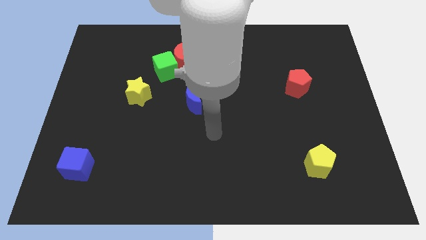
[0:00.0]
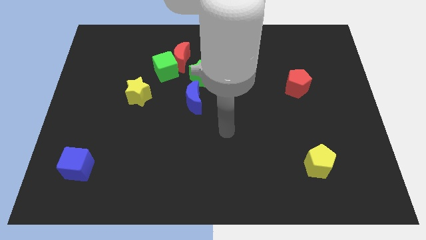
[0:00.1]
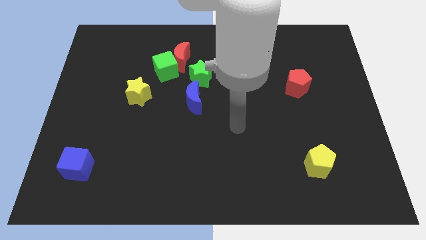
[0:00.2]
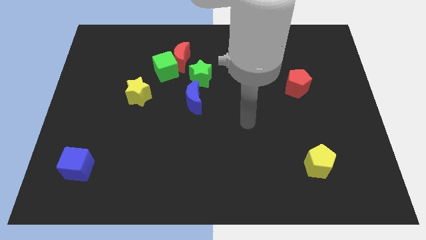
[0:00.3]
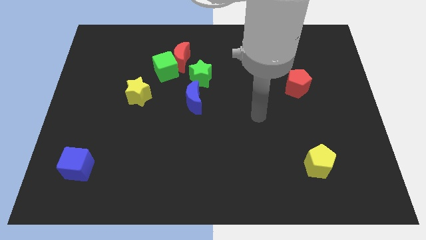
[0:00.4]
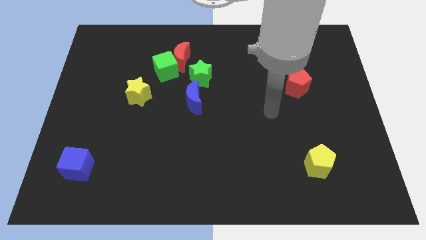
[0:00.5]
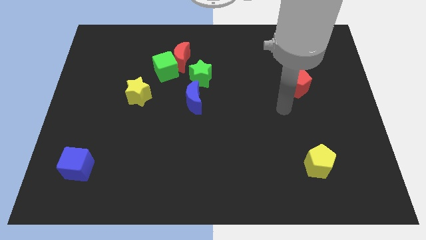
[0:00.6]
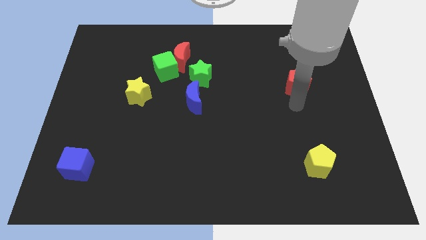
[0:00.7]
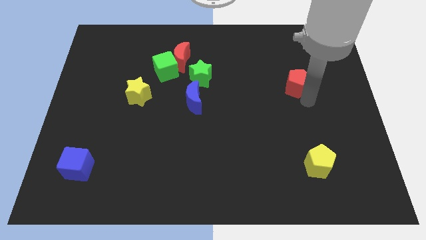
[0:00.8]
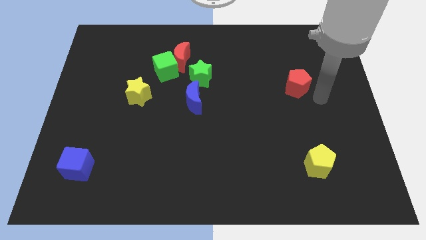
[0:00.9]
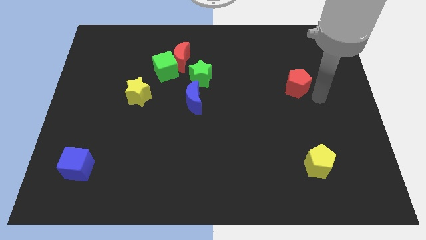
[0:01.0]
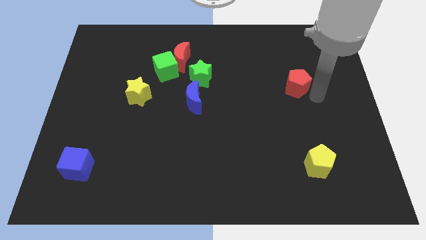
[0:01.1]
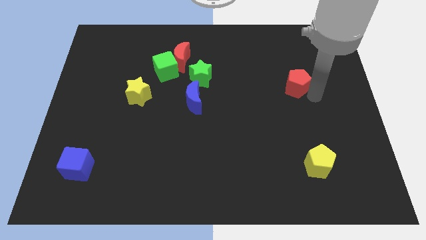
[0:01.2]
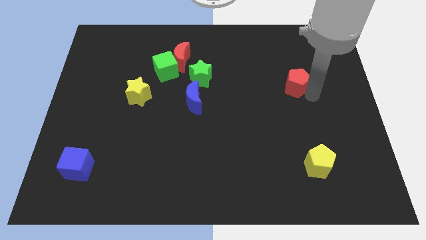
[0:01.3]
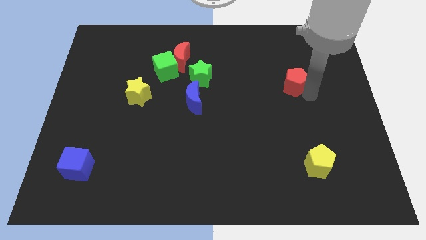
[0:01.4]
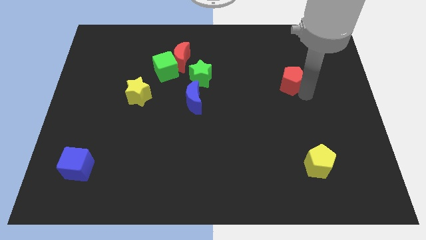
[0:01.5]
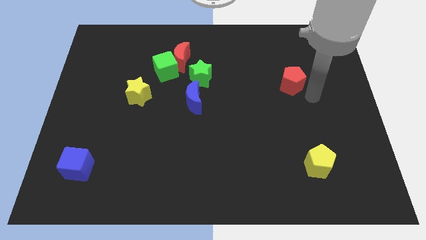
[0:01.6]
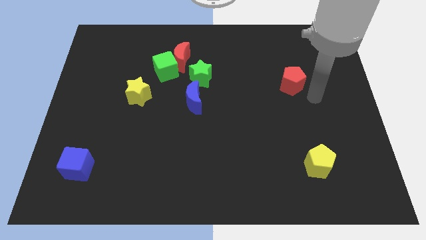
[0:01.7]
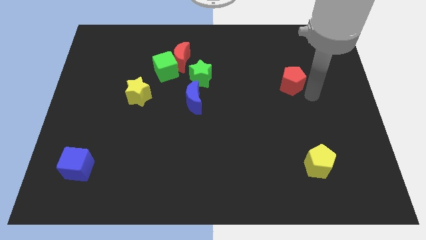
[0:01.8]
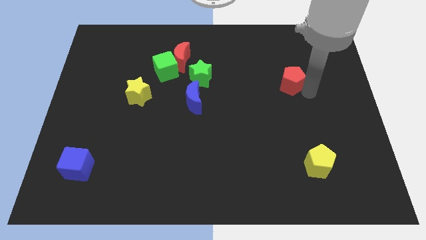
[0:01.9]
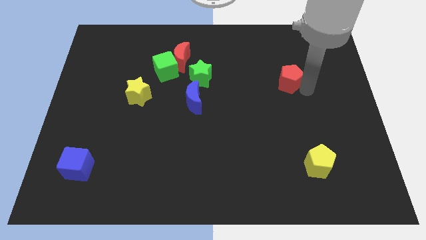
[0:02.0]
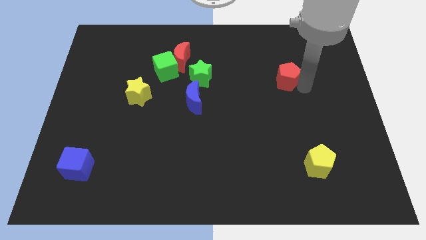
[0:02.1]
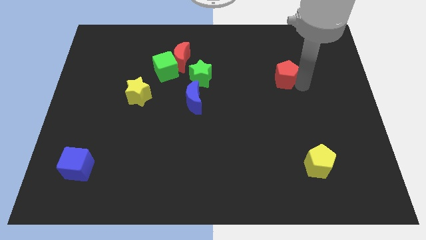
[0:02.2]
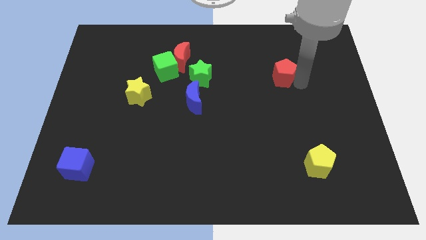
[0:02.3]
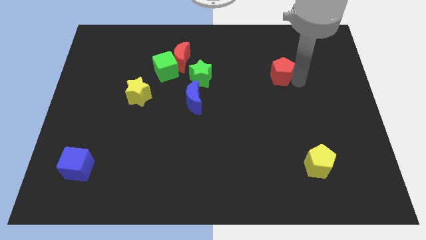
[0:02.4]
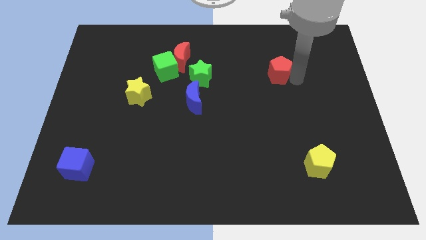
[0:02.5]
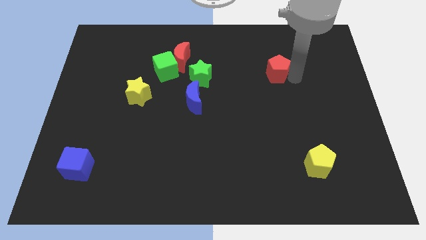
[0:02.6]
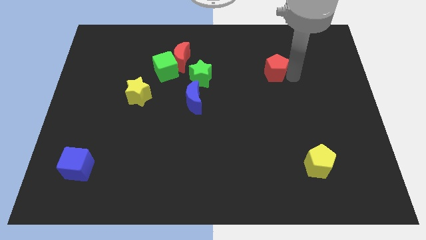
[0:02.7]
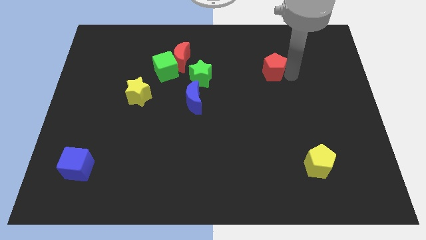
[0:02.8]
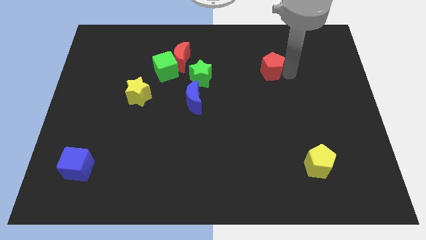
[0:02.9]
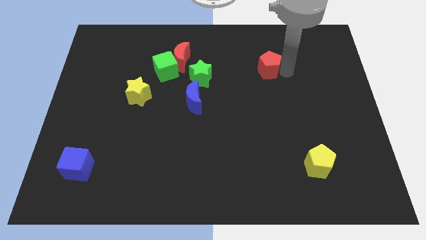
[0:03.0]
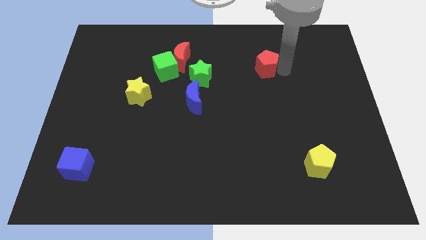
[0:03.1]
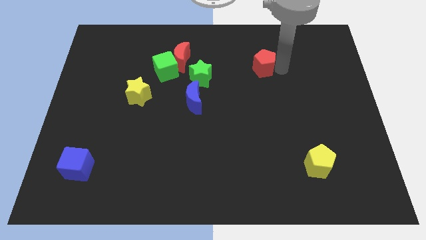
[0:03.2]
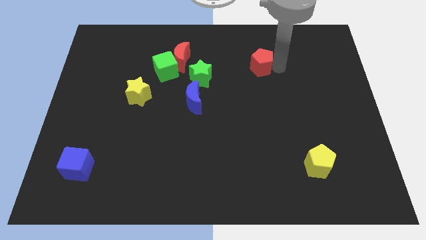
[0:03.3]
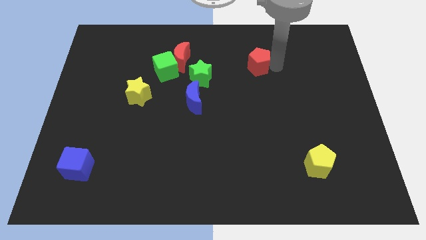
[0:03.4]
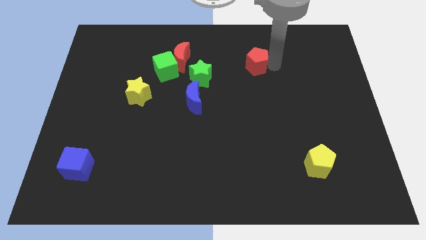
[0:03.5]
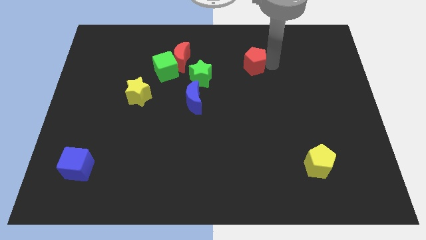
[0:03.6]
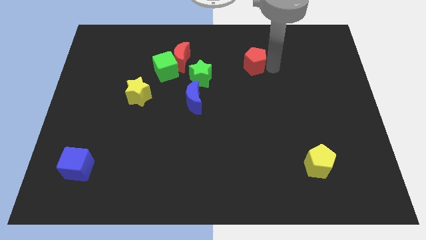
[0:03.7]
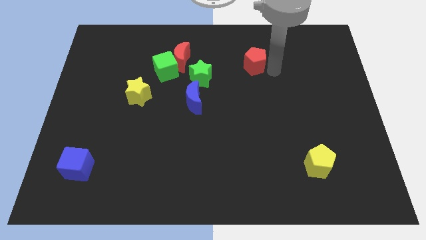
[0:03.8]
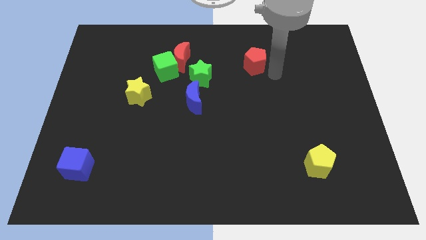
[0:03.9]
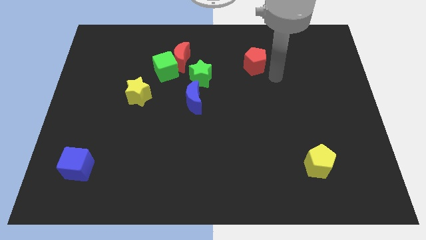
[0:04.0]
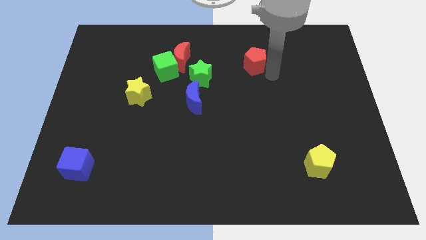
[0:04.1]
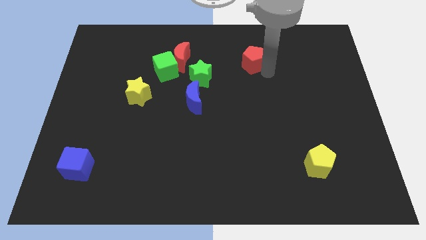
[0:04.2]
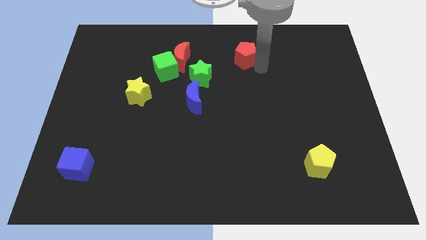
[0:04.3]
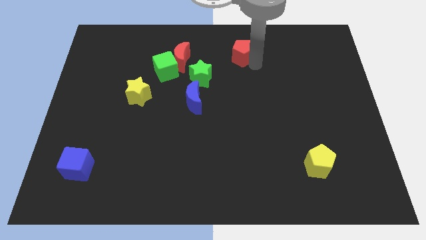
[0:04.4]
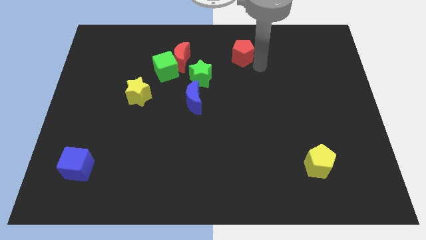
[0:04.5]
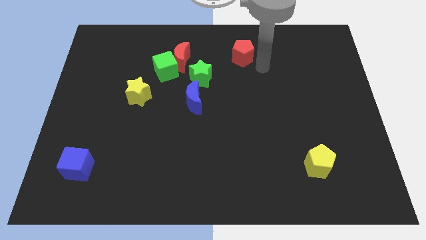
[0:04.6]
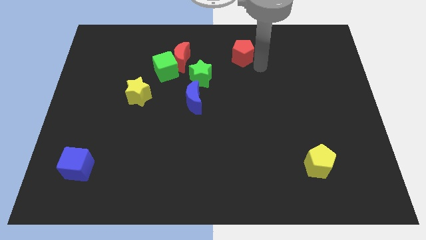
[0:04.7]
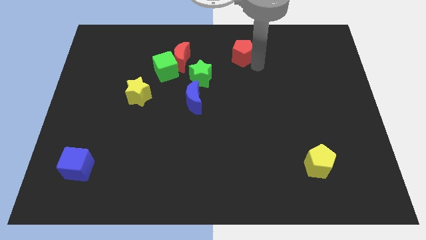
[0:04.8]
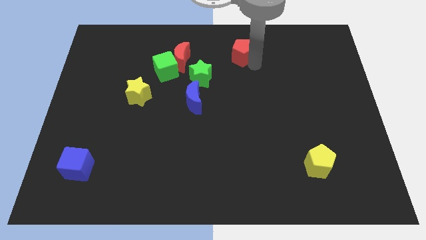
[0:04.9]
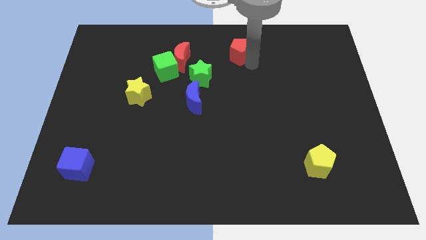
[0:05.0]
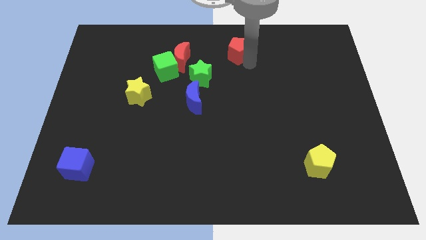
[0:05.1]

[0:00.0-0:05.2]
push the red pentagon to the towards your base

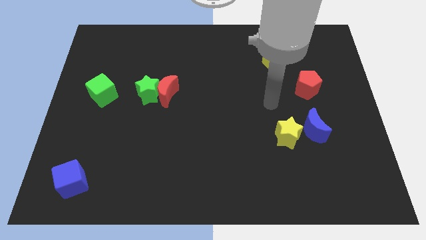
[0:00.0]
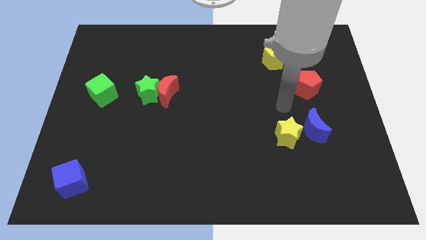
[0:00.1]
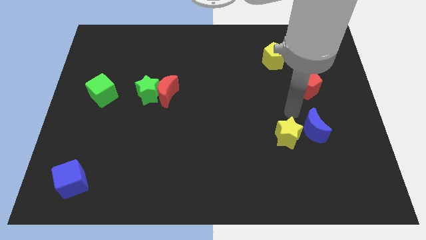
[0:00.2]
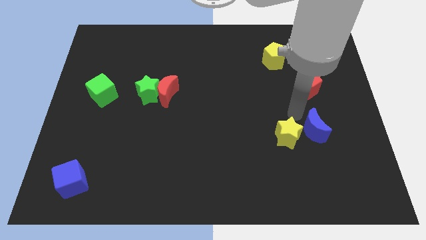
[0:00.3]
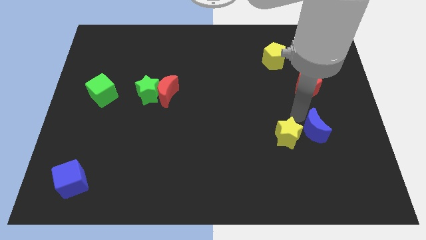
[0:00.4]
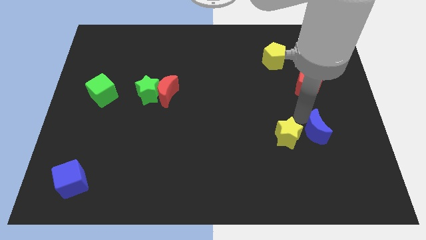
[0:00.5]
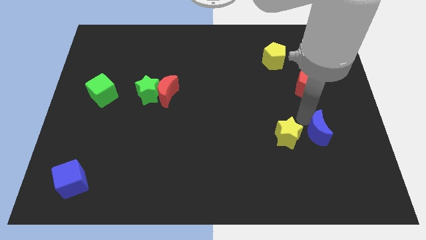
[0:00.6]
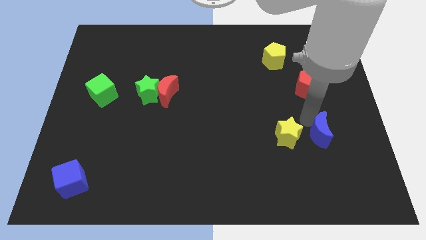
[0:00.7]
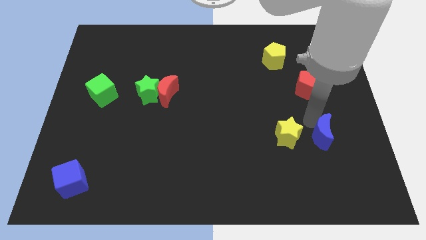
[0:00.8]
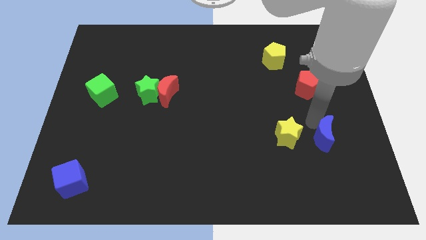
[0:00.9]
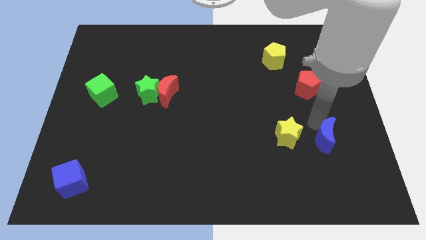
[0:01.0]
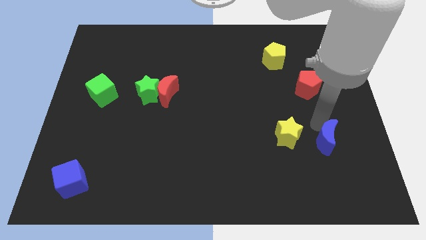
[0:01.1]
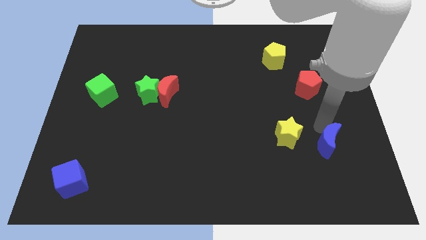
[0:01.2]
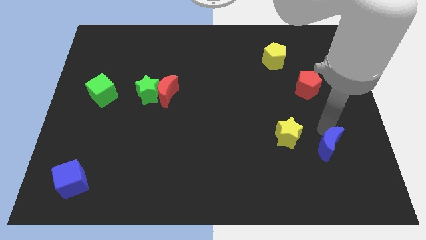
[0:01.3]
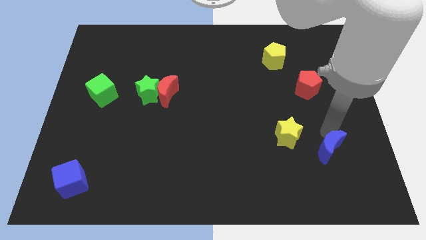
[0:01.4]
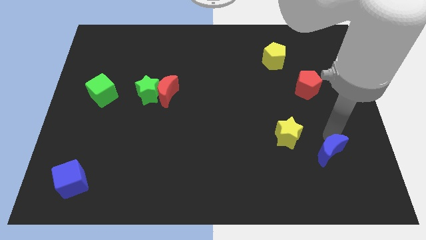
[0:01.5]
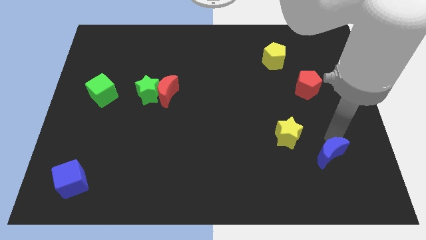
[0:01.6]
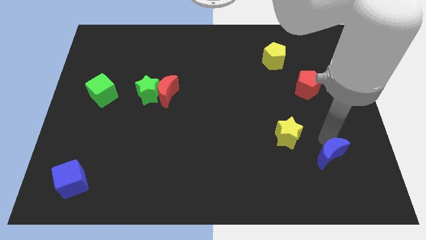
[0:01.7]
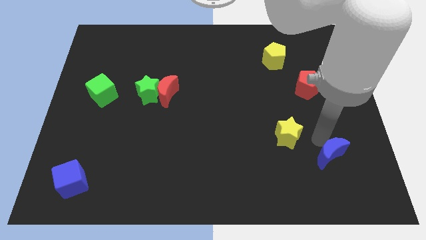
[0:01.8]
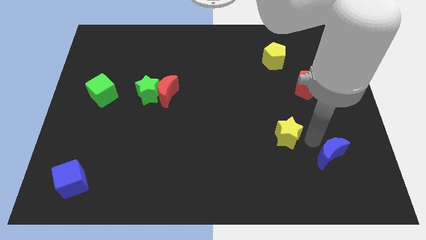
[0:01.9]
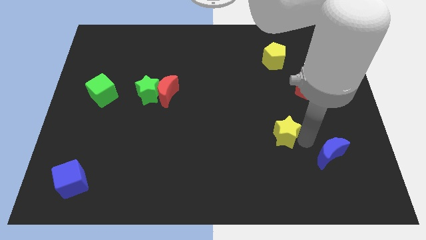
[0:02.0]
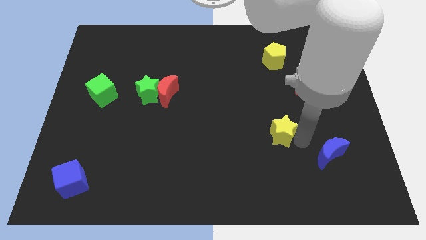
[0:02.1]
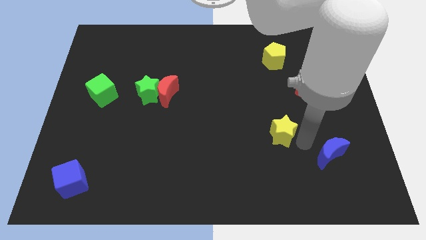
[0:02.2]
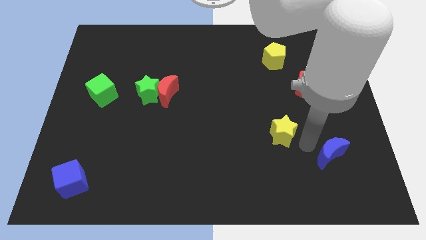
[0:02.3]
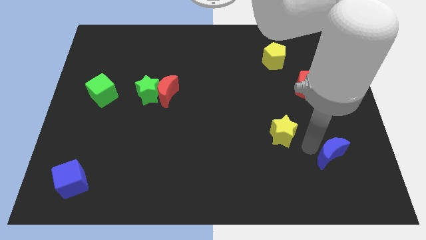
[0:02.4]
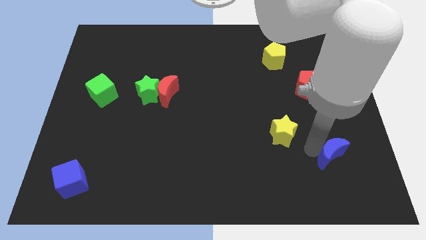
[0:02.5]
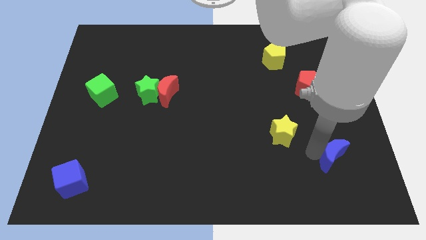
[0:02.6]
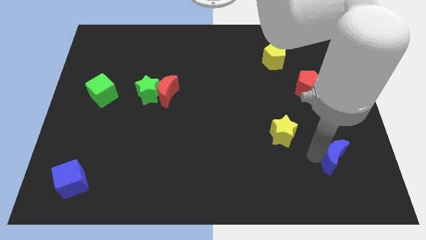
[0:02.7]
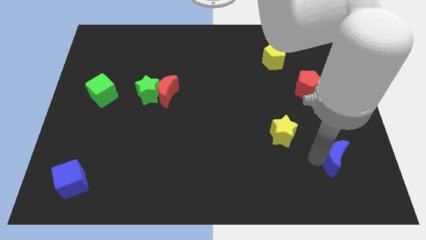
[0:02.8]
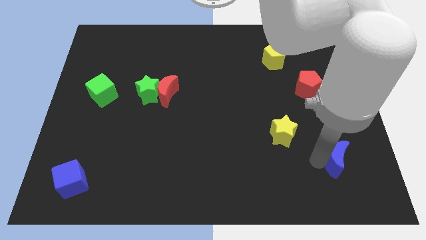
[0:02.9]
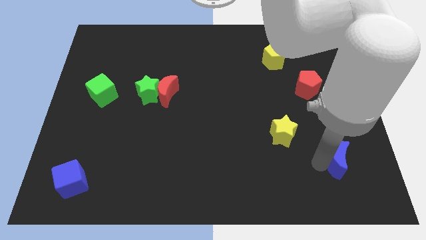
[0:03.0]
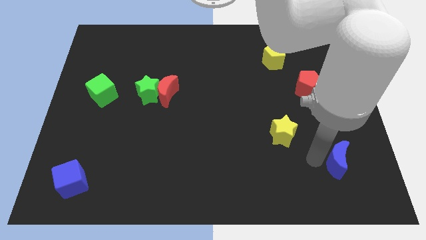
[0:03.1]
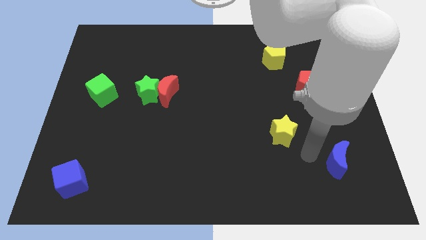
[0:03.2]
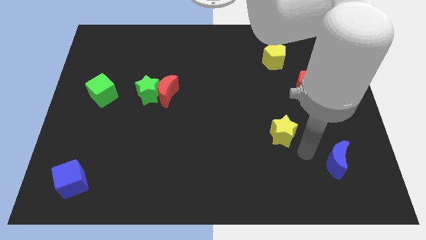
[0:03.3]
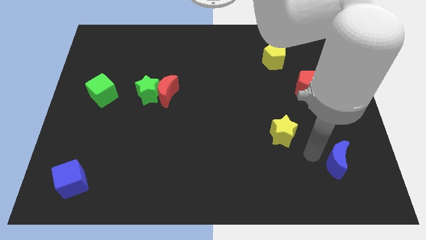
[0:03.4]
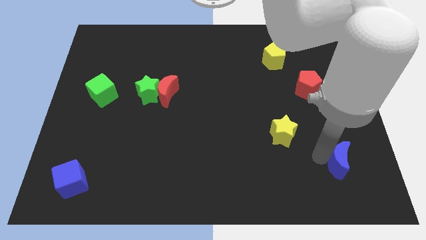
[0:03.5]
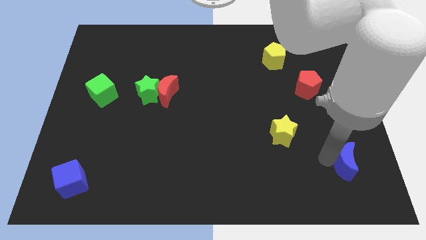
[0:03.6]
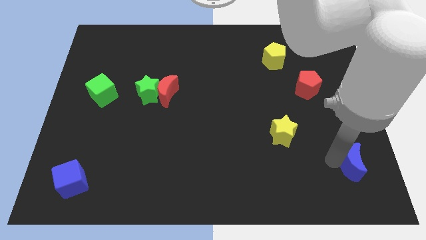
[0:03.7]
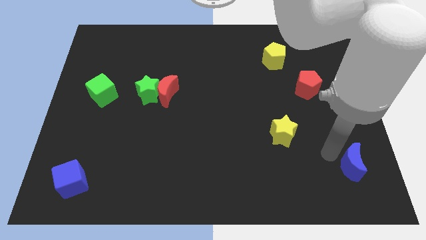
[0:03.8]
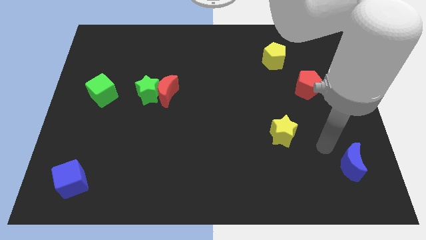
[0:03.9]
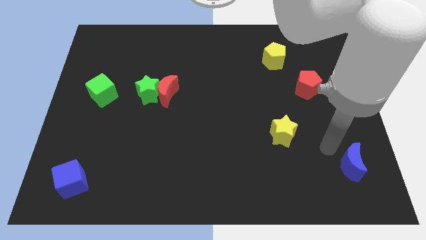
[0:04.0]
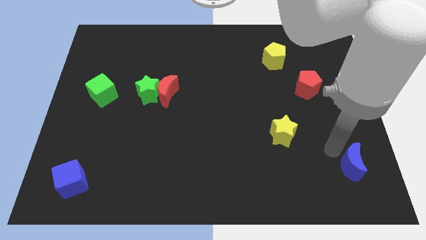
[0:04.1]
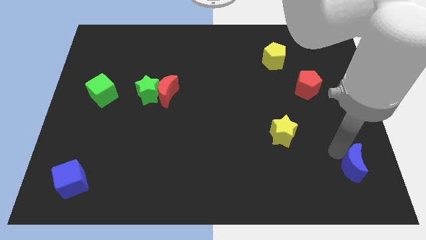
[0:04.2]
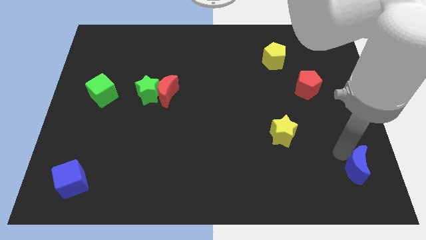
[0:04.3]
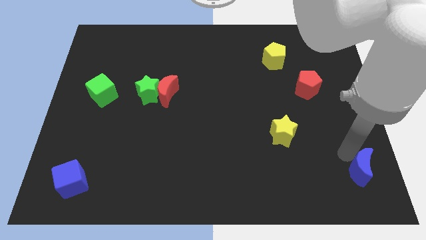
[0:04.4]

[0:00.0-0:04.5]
push the blue moon to the bottom right corner
